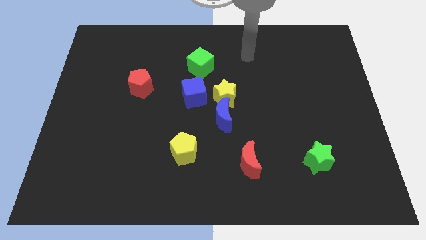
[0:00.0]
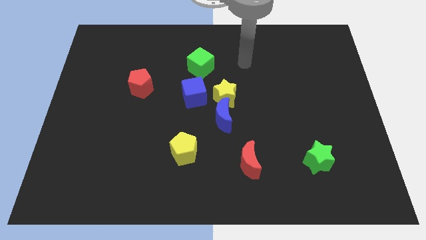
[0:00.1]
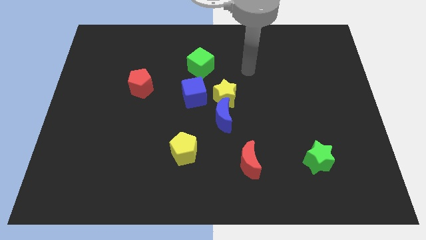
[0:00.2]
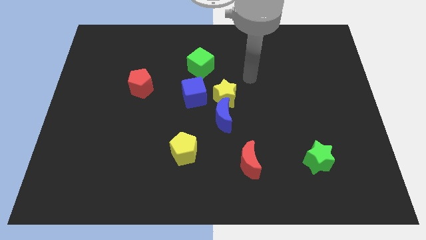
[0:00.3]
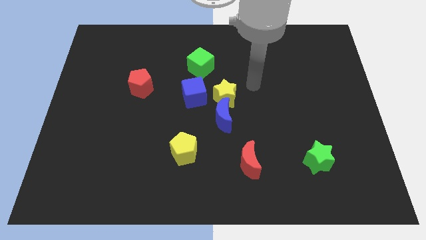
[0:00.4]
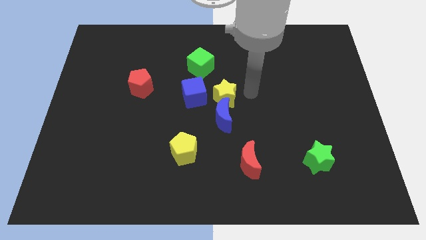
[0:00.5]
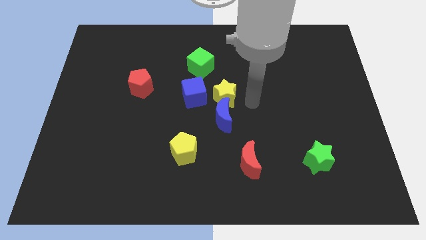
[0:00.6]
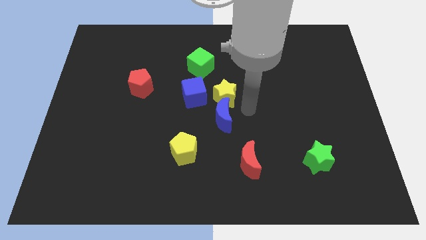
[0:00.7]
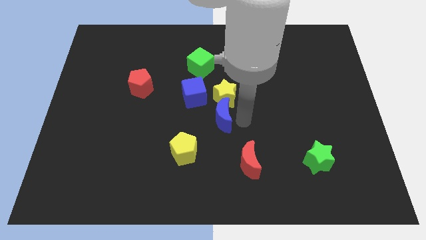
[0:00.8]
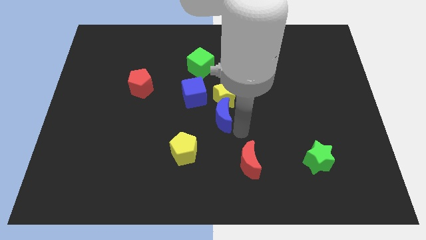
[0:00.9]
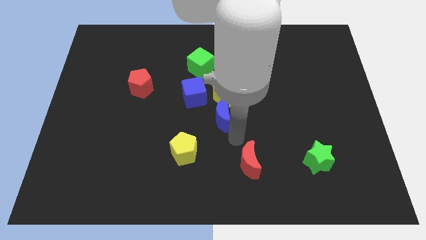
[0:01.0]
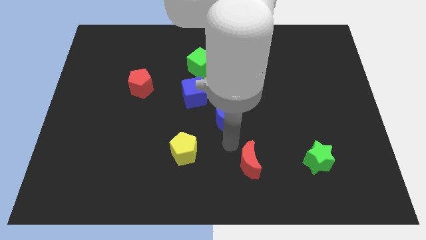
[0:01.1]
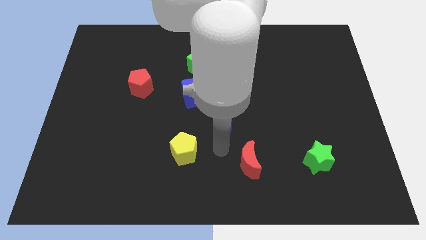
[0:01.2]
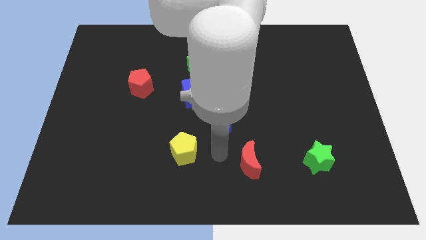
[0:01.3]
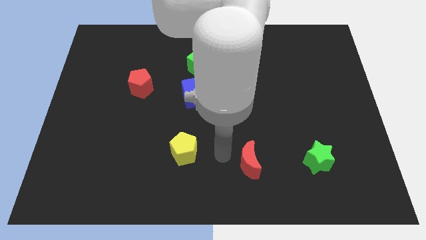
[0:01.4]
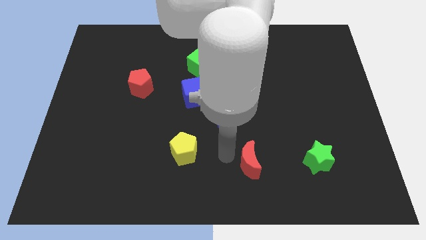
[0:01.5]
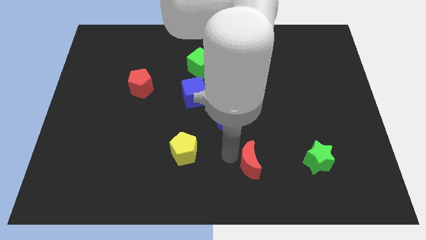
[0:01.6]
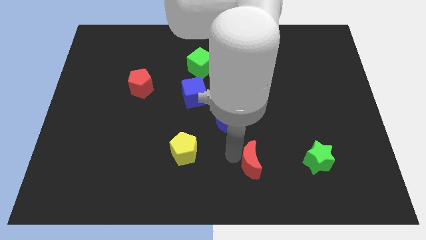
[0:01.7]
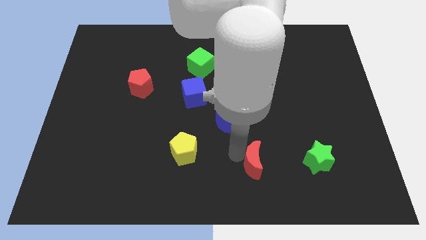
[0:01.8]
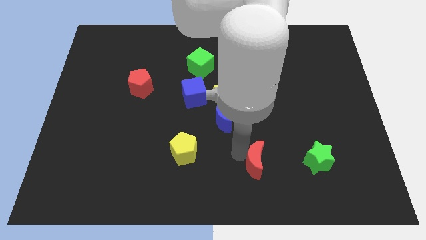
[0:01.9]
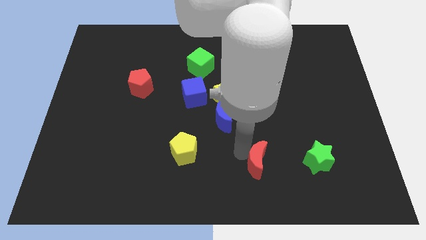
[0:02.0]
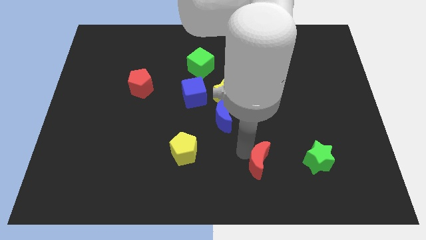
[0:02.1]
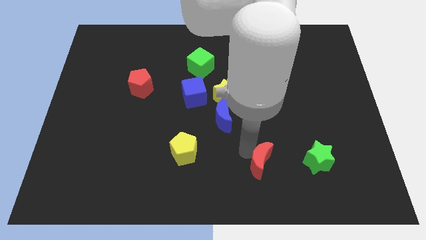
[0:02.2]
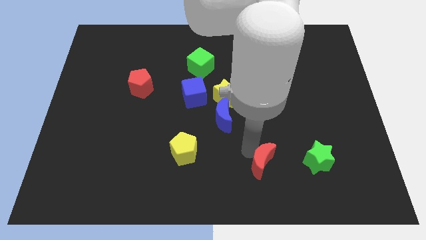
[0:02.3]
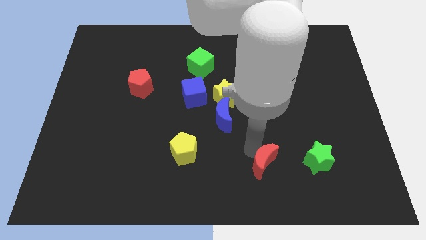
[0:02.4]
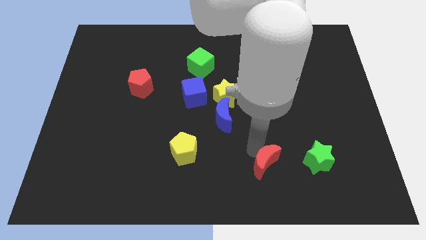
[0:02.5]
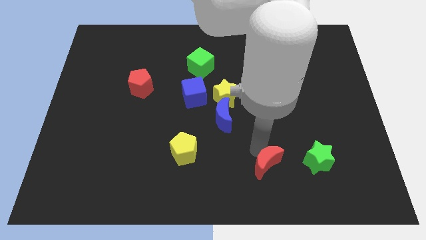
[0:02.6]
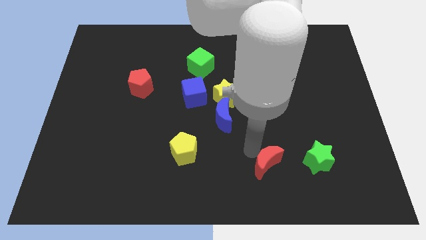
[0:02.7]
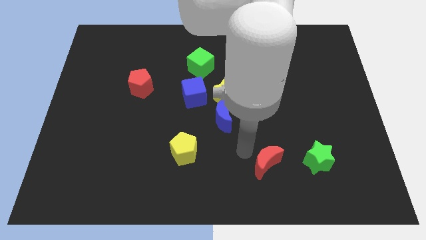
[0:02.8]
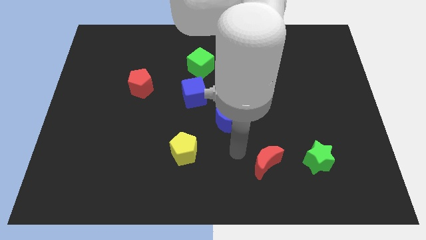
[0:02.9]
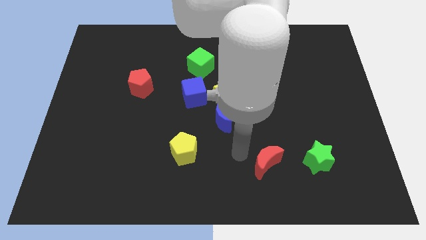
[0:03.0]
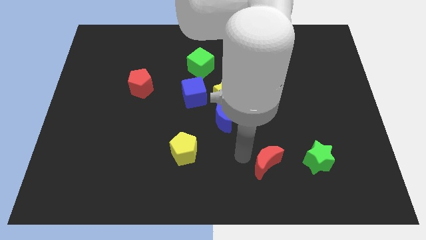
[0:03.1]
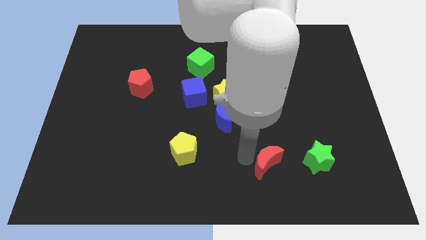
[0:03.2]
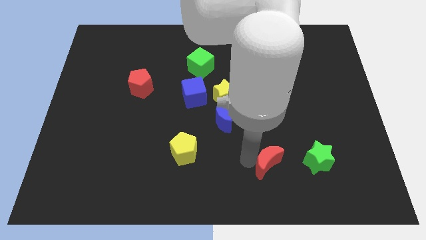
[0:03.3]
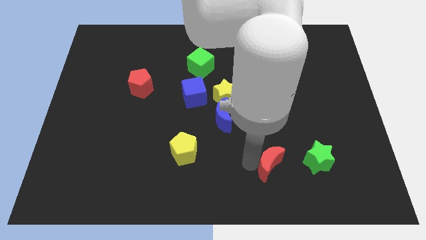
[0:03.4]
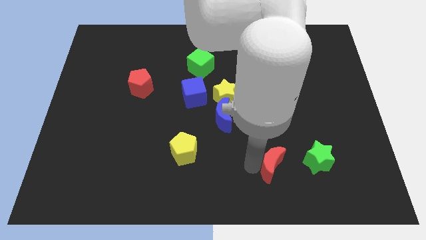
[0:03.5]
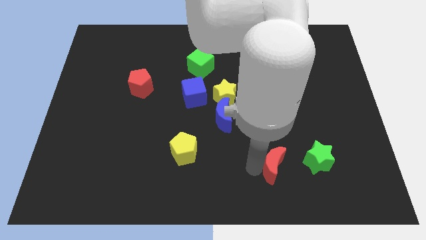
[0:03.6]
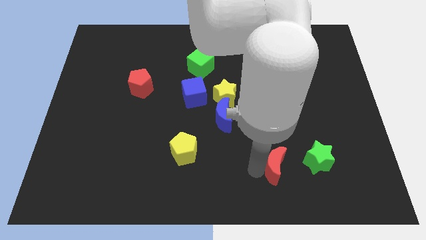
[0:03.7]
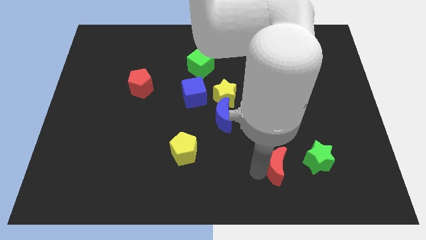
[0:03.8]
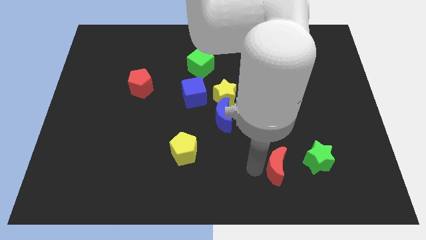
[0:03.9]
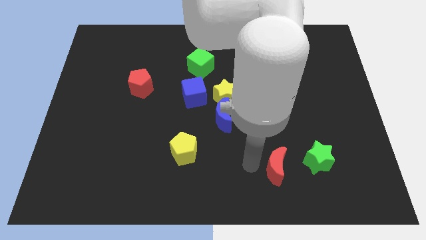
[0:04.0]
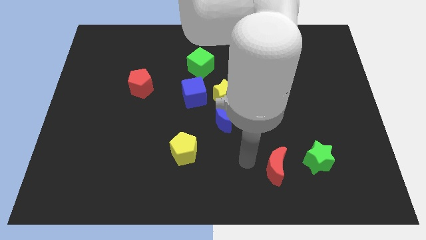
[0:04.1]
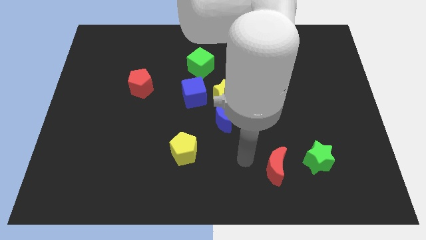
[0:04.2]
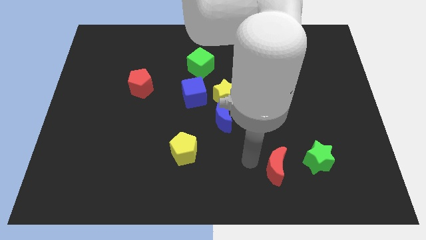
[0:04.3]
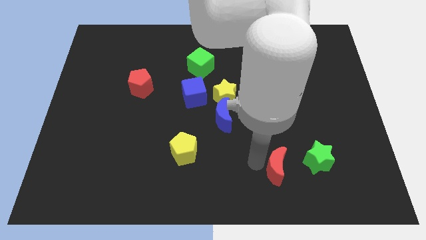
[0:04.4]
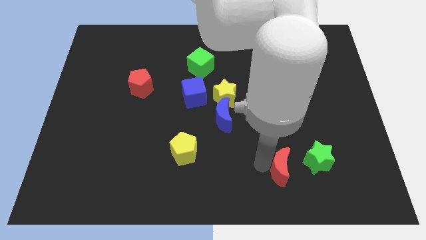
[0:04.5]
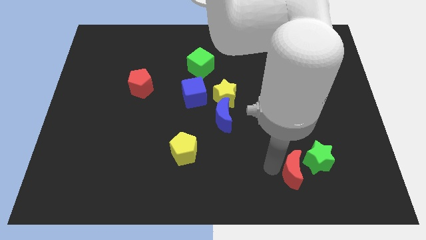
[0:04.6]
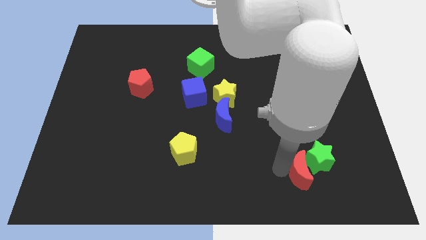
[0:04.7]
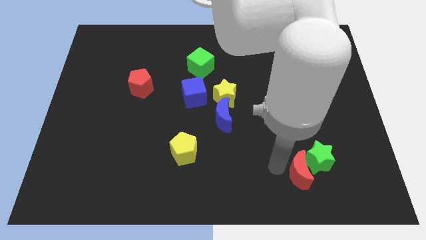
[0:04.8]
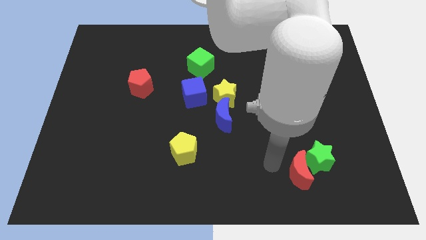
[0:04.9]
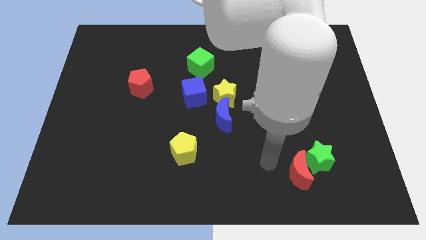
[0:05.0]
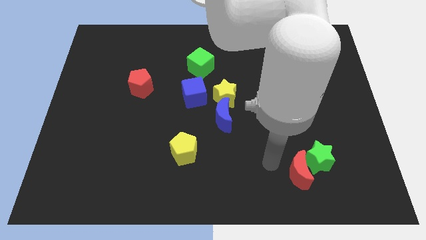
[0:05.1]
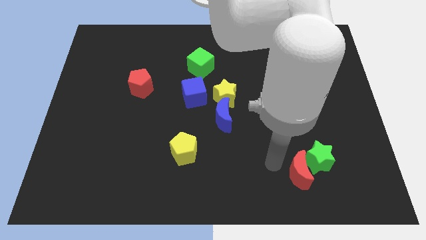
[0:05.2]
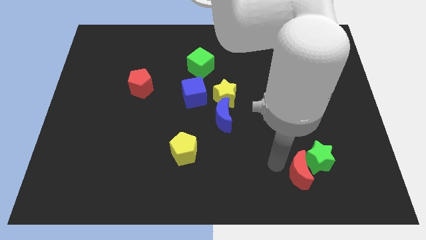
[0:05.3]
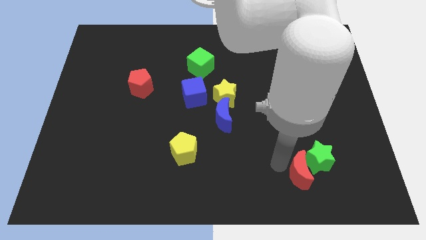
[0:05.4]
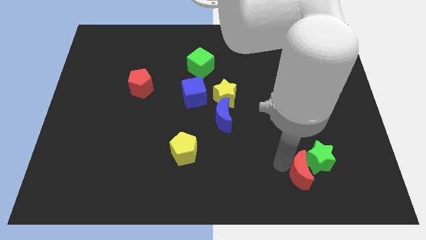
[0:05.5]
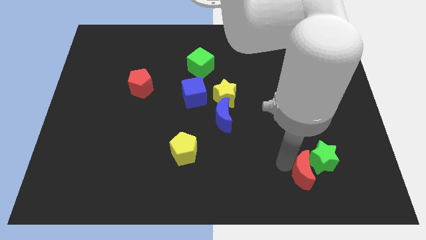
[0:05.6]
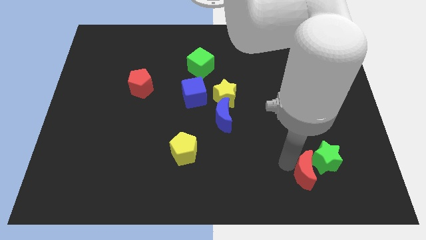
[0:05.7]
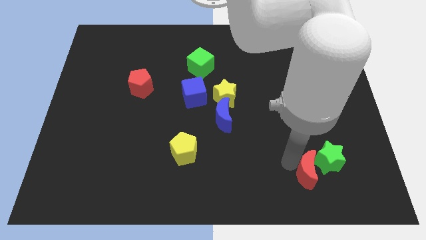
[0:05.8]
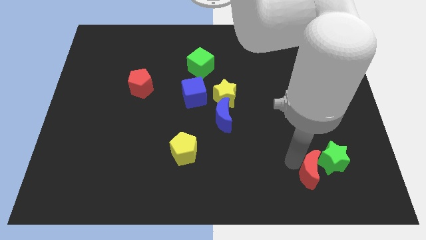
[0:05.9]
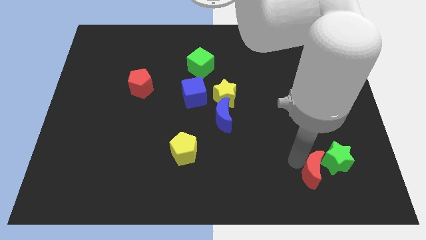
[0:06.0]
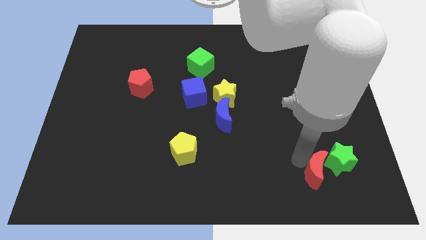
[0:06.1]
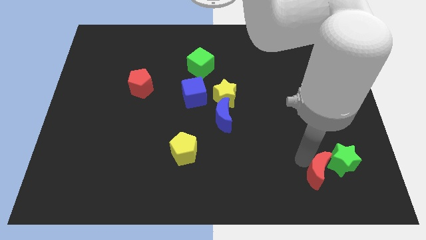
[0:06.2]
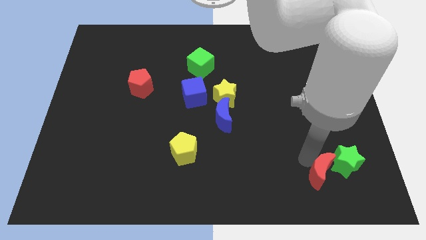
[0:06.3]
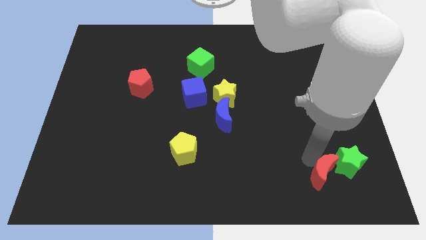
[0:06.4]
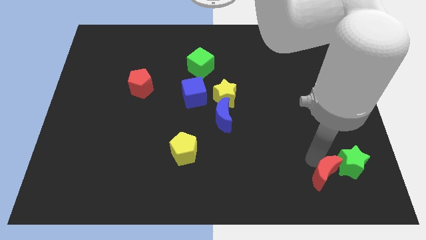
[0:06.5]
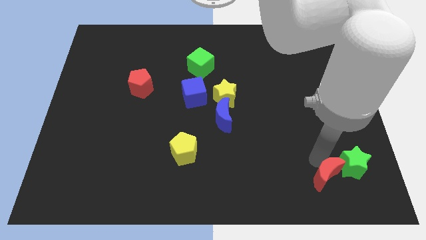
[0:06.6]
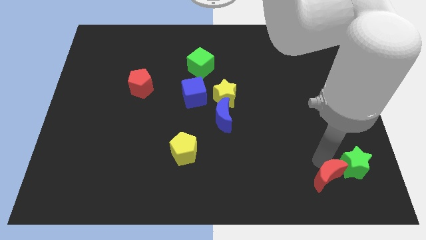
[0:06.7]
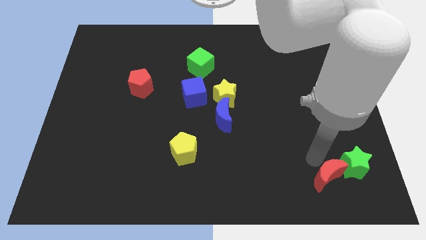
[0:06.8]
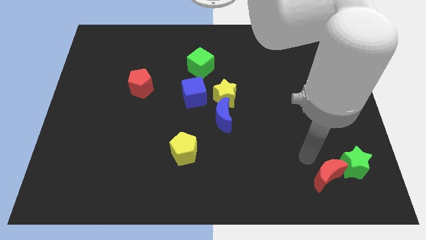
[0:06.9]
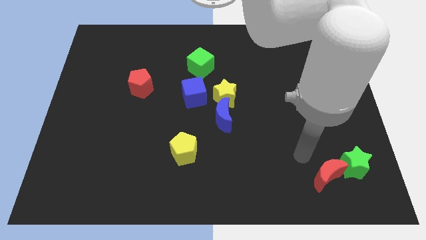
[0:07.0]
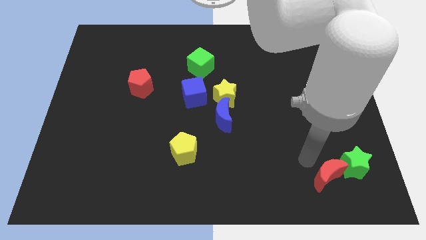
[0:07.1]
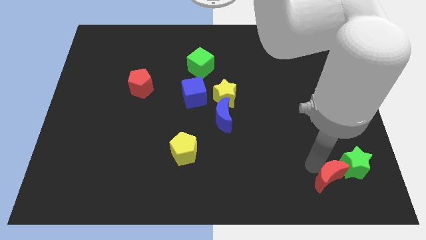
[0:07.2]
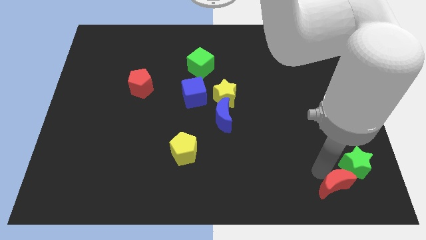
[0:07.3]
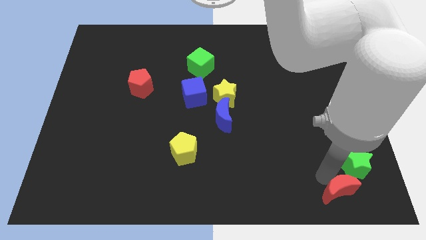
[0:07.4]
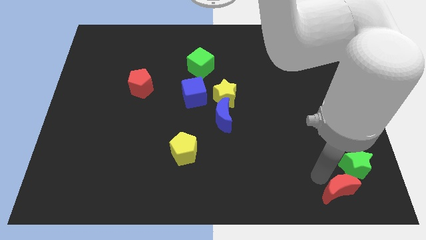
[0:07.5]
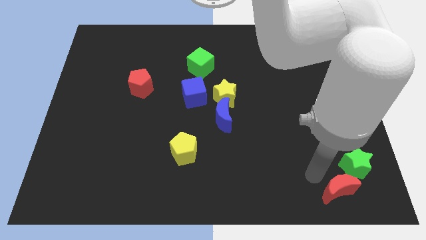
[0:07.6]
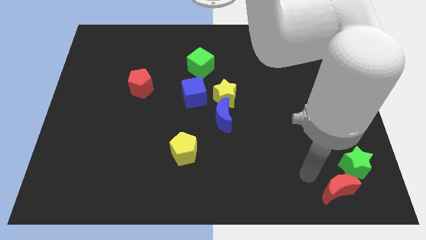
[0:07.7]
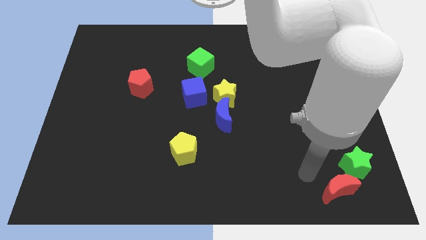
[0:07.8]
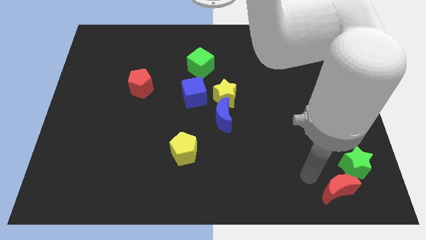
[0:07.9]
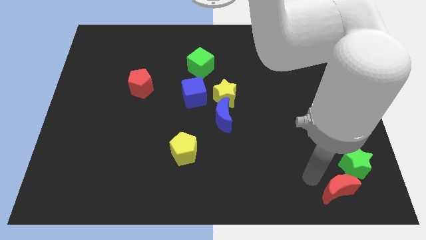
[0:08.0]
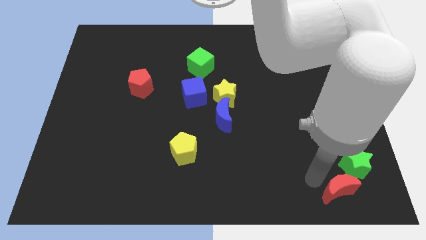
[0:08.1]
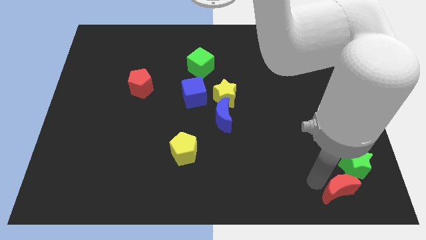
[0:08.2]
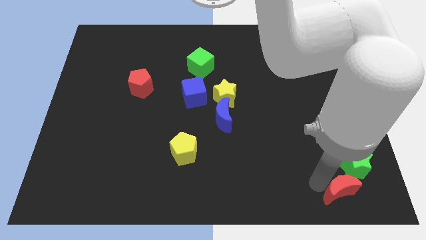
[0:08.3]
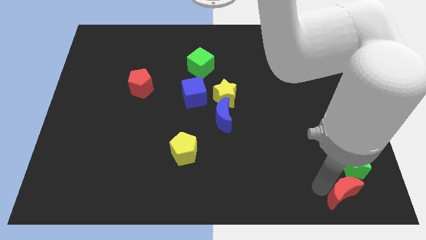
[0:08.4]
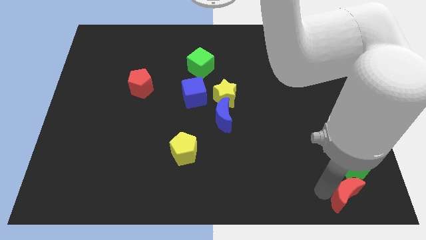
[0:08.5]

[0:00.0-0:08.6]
put the red moon to the lower right corner
